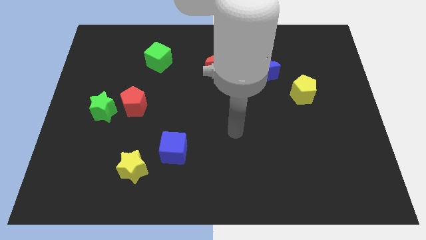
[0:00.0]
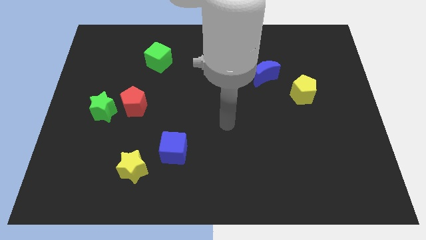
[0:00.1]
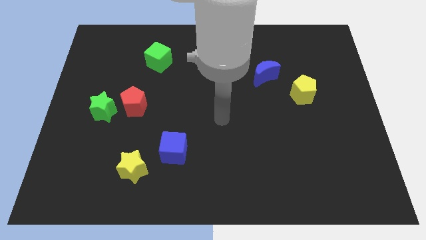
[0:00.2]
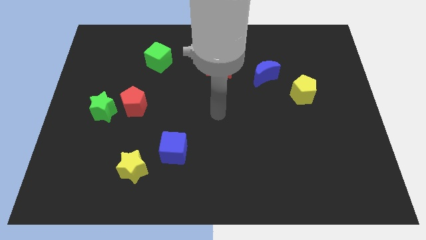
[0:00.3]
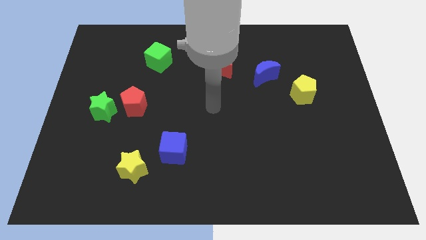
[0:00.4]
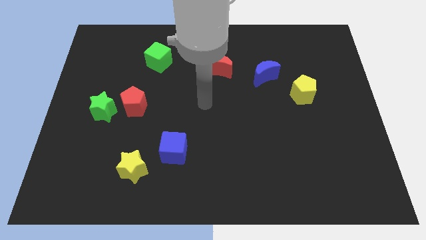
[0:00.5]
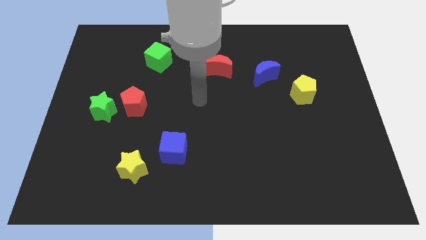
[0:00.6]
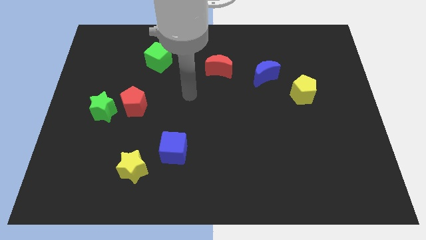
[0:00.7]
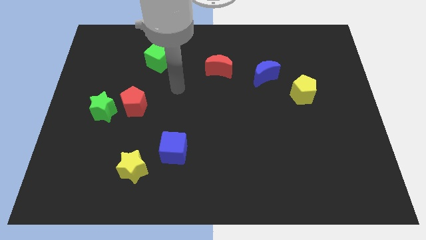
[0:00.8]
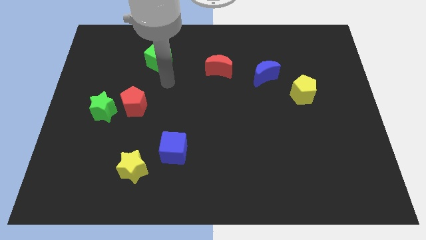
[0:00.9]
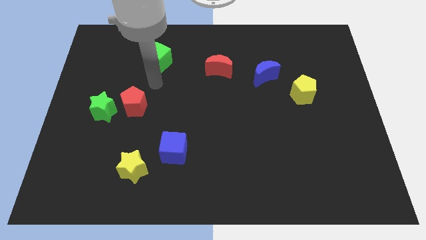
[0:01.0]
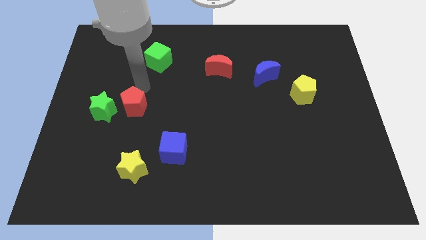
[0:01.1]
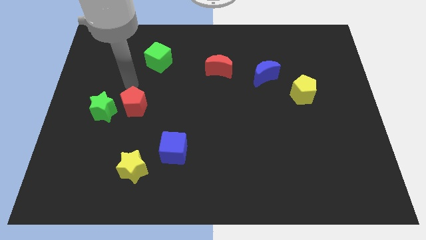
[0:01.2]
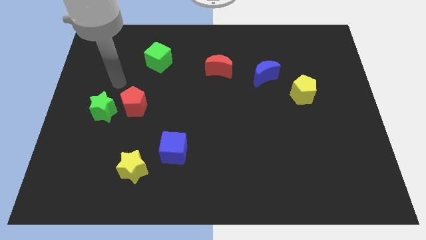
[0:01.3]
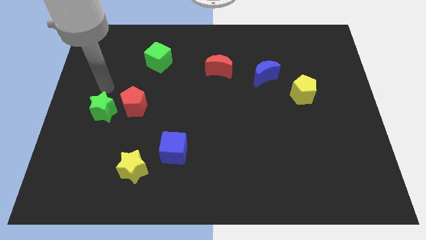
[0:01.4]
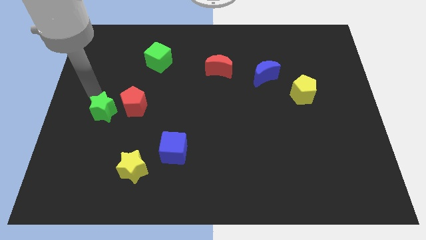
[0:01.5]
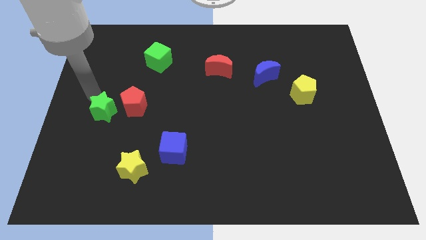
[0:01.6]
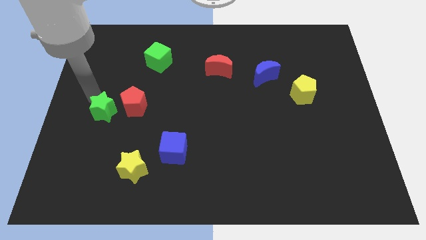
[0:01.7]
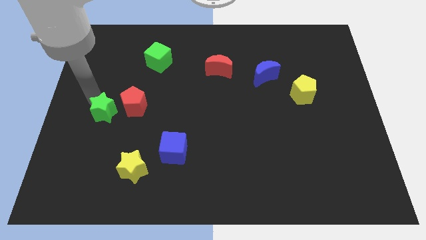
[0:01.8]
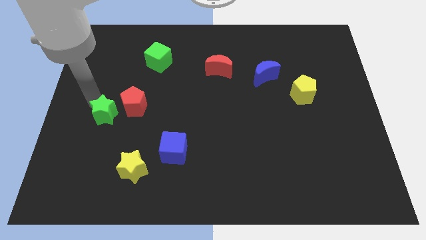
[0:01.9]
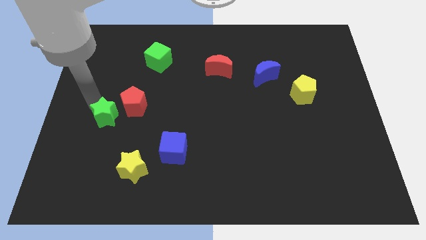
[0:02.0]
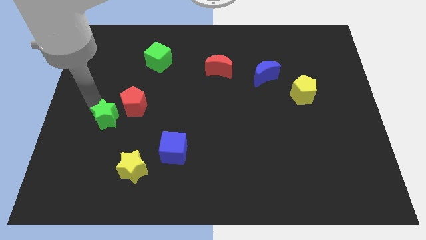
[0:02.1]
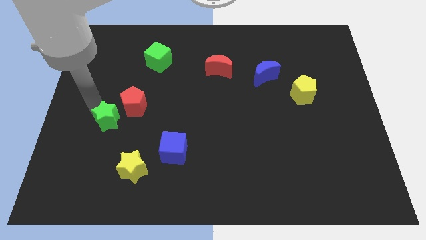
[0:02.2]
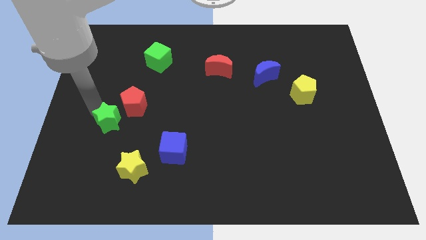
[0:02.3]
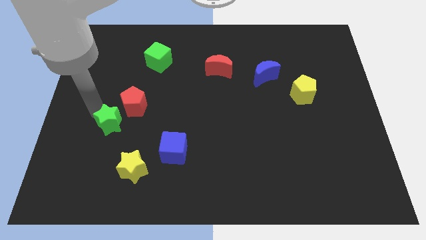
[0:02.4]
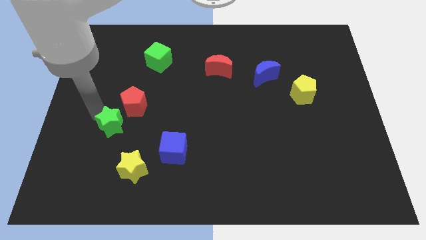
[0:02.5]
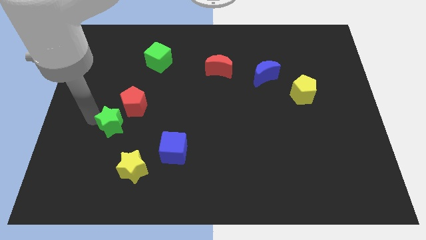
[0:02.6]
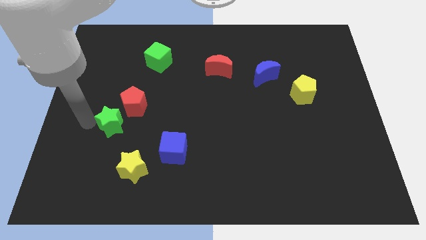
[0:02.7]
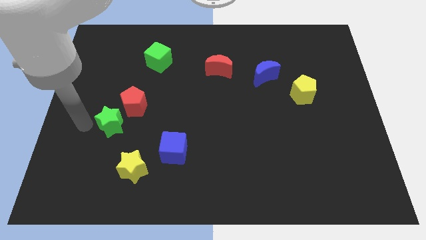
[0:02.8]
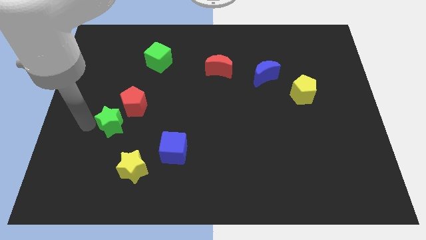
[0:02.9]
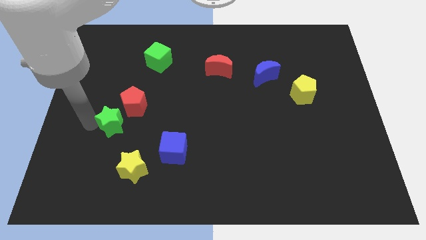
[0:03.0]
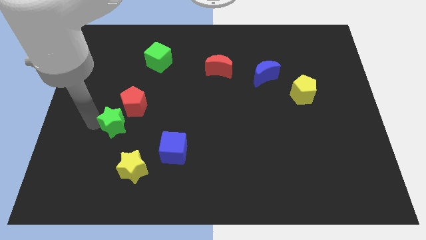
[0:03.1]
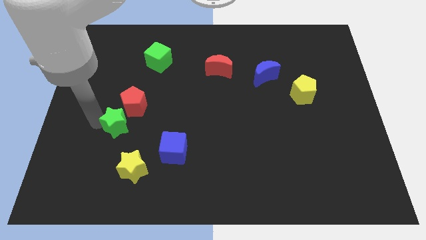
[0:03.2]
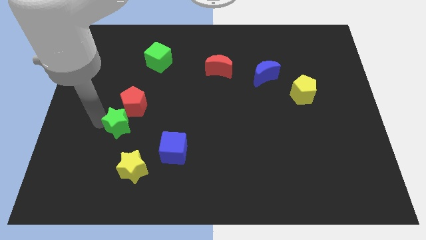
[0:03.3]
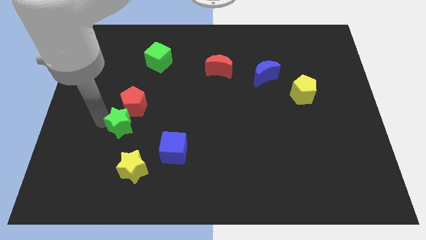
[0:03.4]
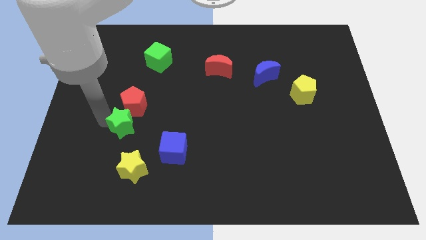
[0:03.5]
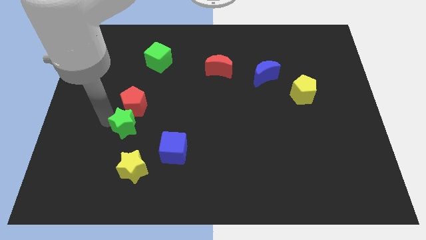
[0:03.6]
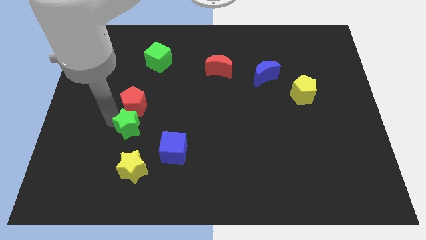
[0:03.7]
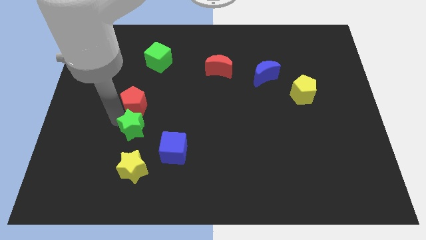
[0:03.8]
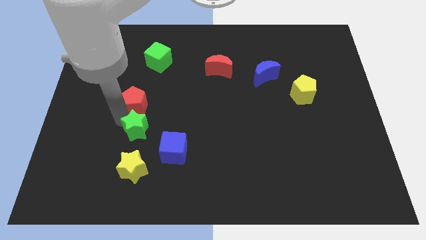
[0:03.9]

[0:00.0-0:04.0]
slightly slide the green star to the right

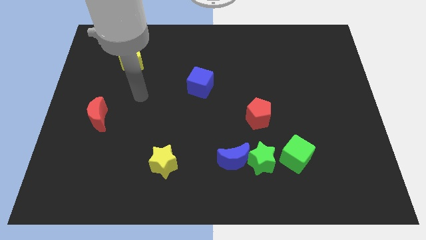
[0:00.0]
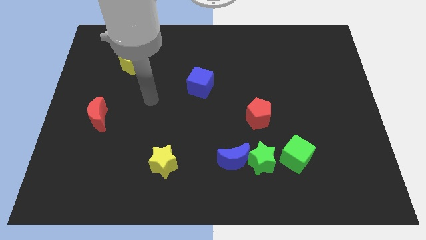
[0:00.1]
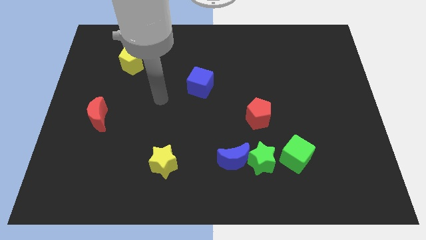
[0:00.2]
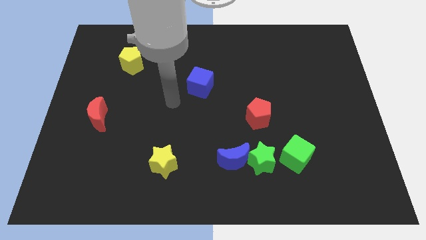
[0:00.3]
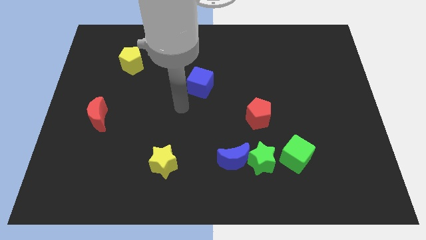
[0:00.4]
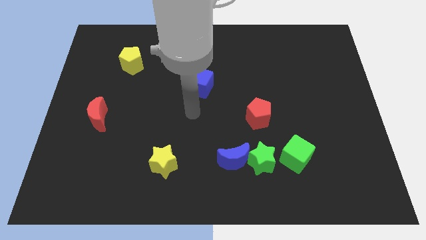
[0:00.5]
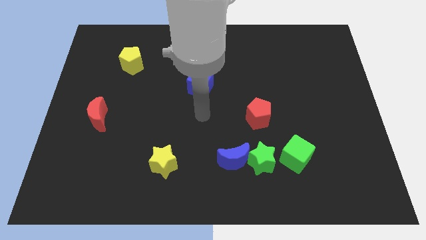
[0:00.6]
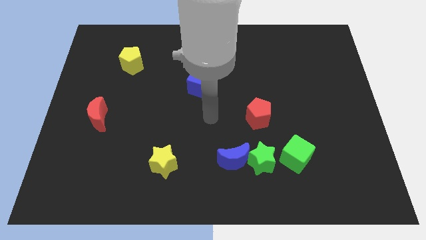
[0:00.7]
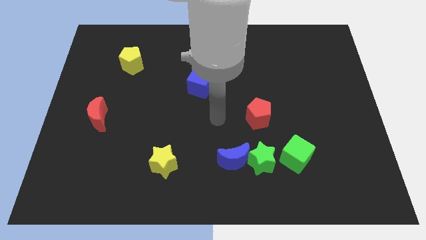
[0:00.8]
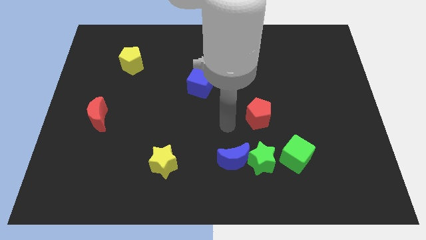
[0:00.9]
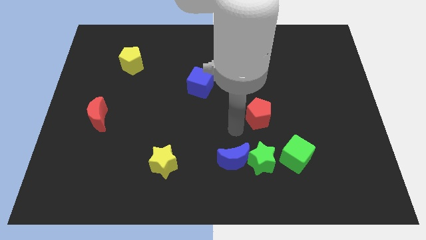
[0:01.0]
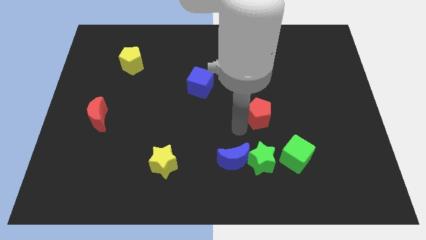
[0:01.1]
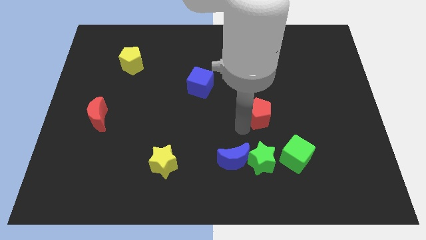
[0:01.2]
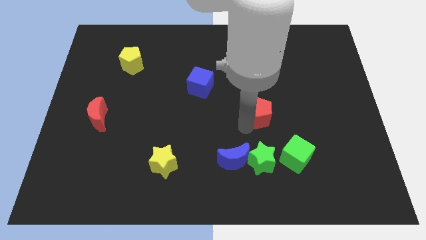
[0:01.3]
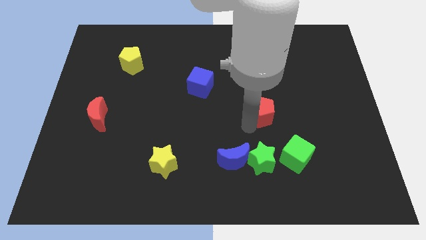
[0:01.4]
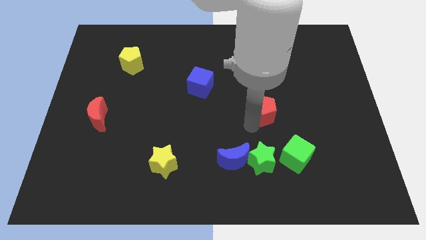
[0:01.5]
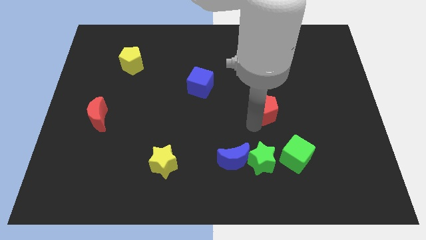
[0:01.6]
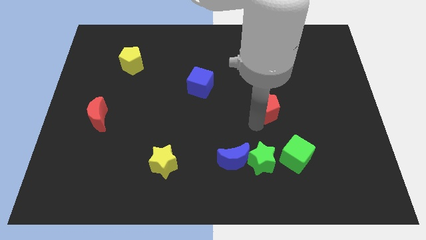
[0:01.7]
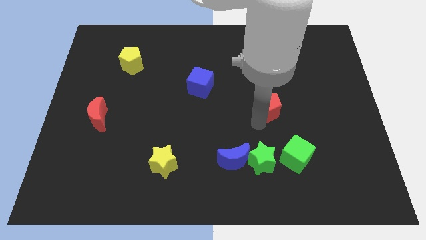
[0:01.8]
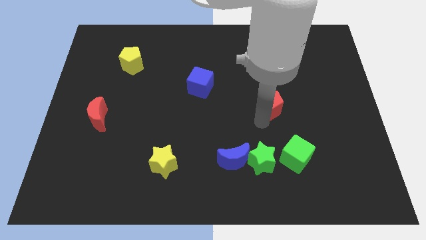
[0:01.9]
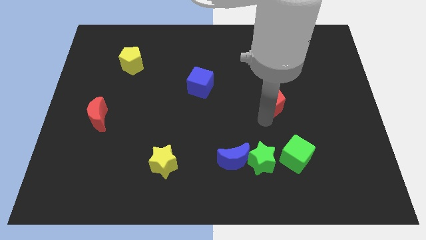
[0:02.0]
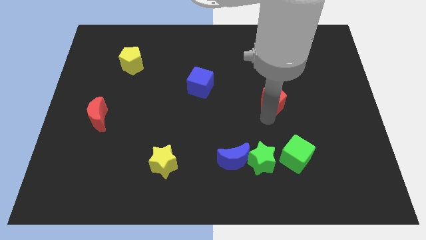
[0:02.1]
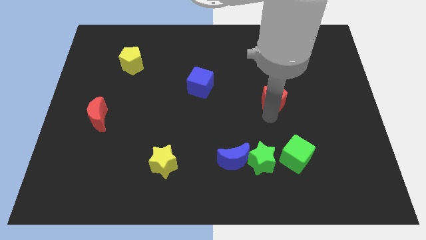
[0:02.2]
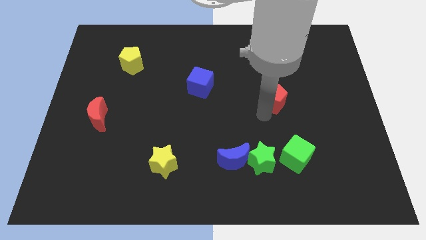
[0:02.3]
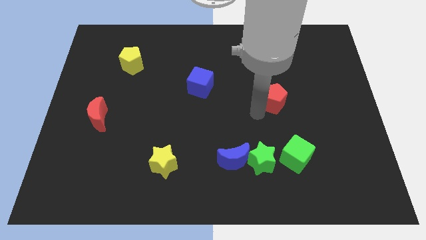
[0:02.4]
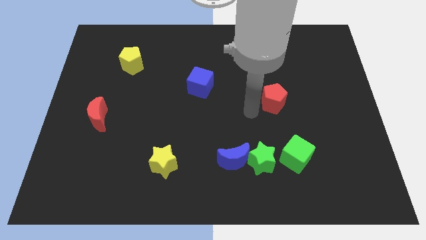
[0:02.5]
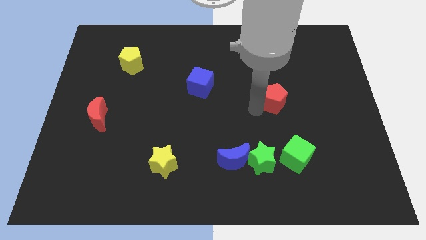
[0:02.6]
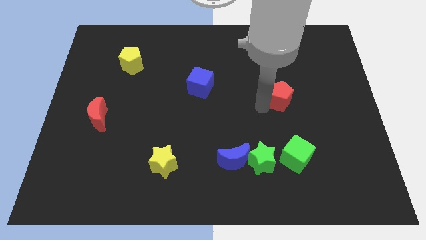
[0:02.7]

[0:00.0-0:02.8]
push the red pentagon a little bit diagonally up and to the right

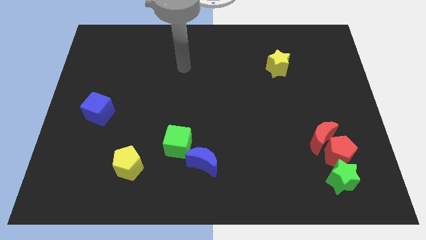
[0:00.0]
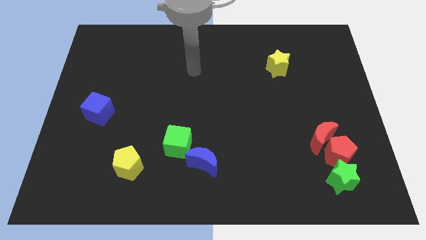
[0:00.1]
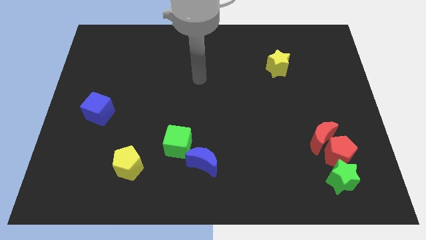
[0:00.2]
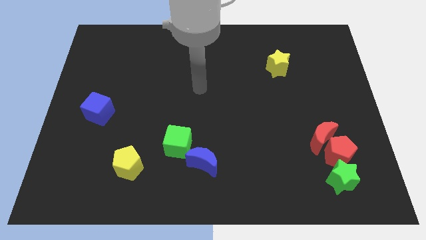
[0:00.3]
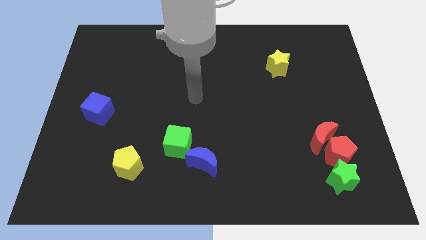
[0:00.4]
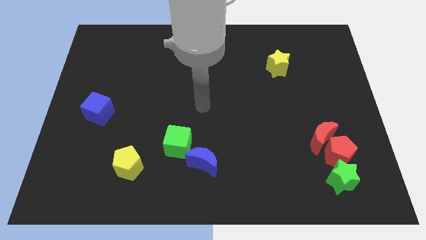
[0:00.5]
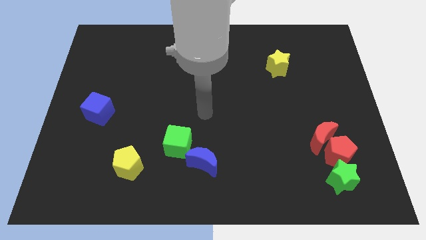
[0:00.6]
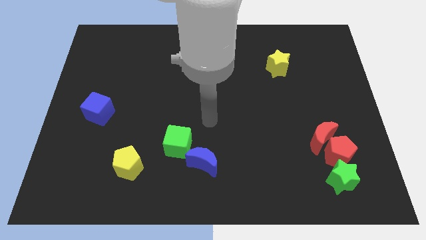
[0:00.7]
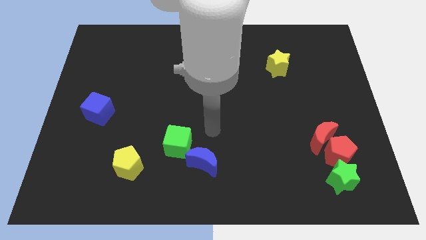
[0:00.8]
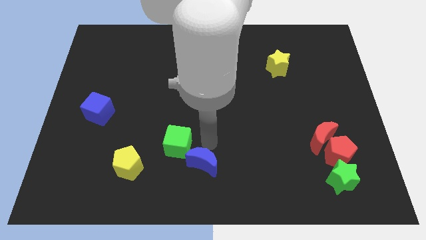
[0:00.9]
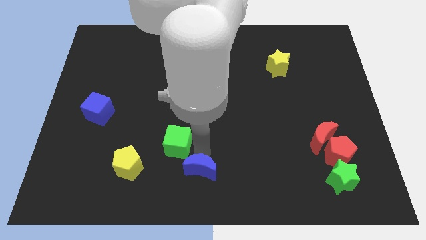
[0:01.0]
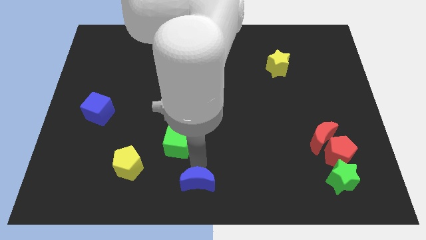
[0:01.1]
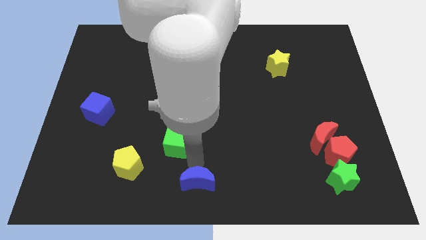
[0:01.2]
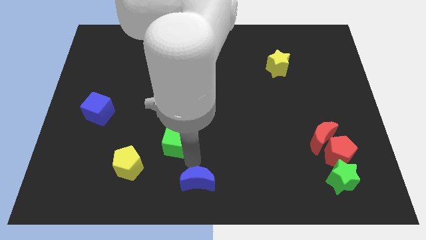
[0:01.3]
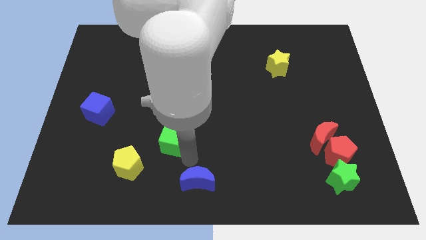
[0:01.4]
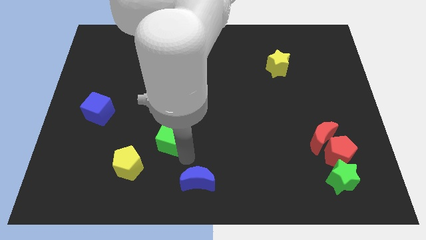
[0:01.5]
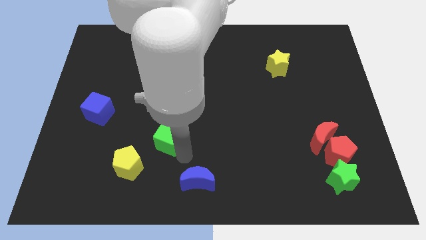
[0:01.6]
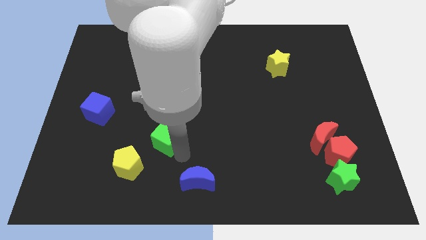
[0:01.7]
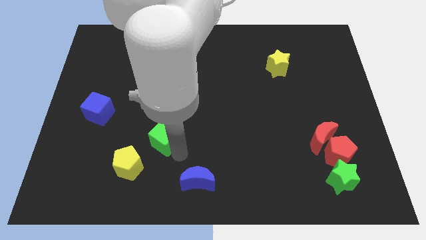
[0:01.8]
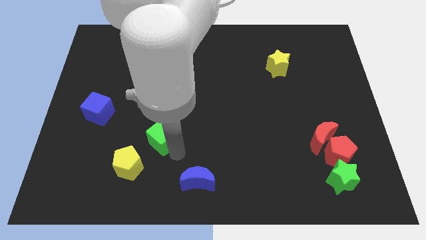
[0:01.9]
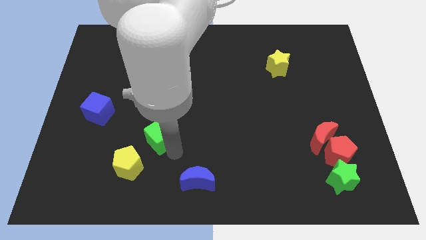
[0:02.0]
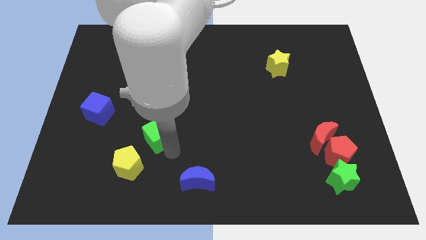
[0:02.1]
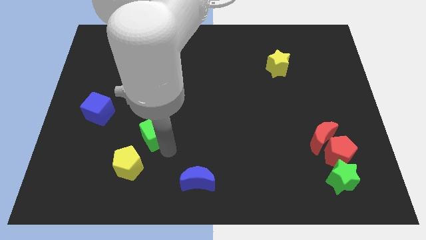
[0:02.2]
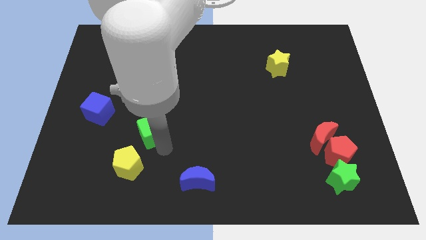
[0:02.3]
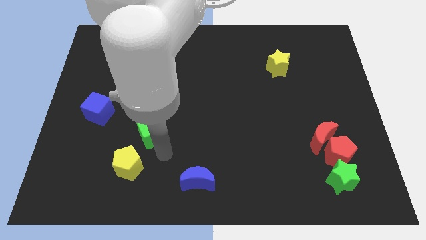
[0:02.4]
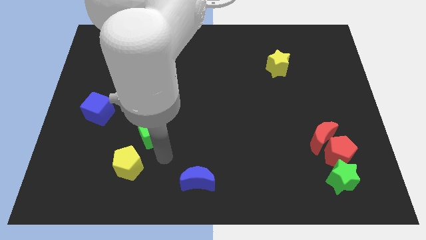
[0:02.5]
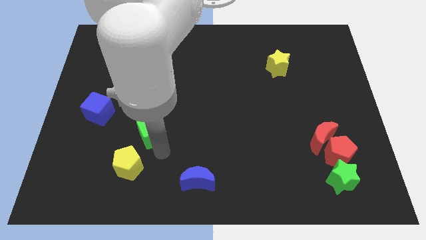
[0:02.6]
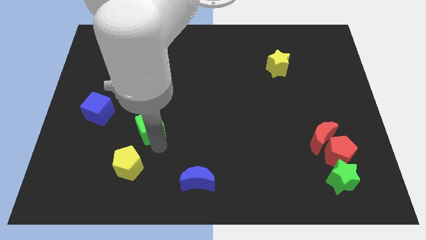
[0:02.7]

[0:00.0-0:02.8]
slightly move the green cube upwards and left diagonally
